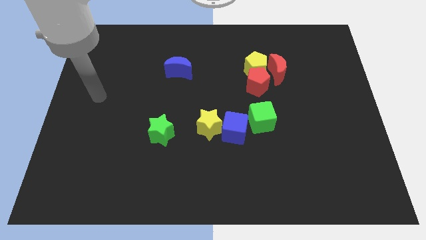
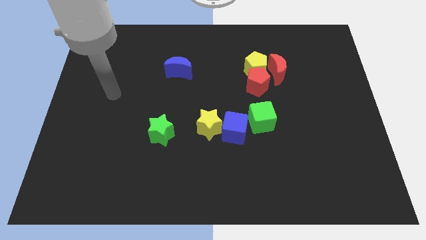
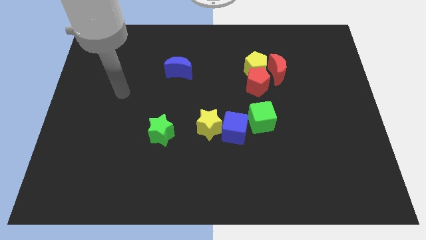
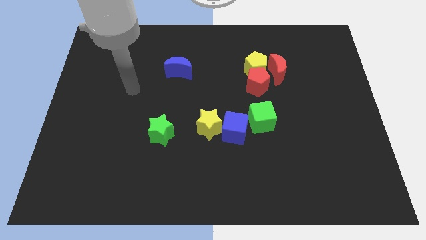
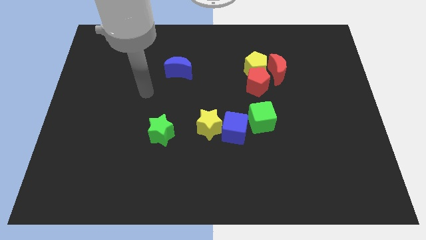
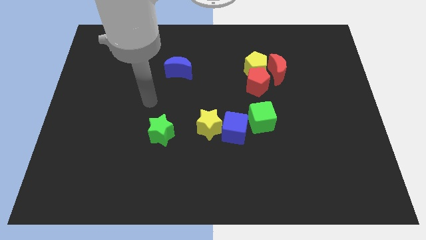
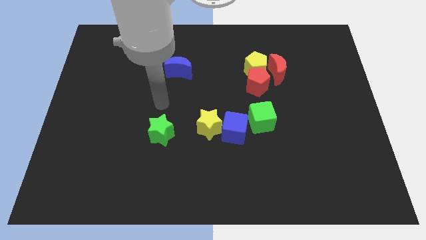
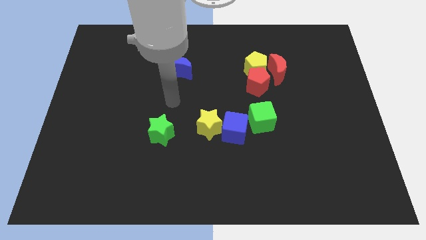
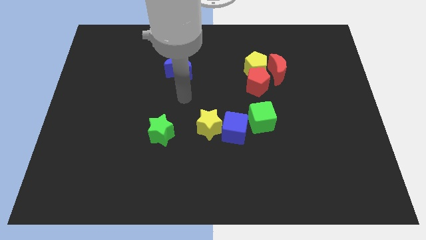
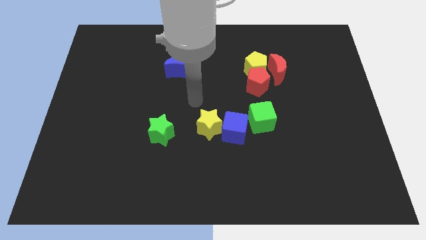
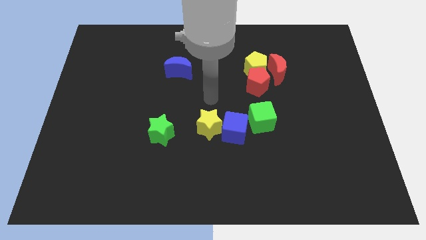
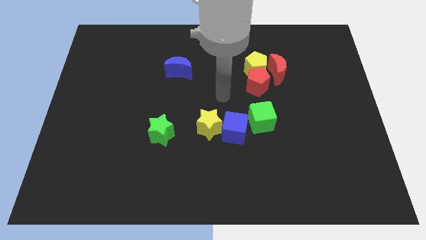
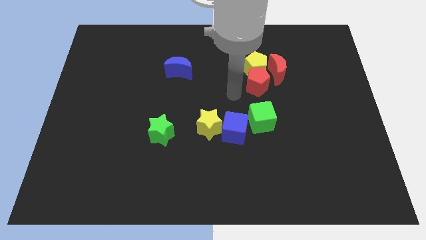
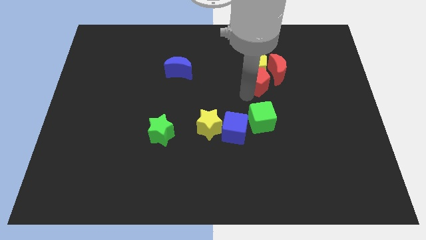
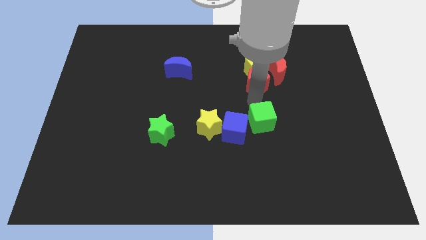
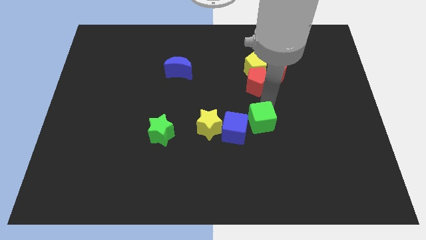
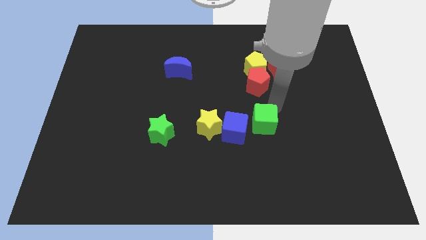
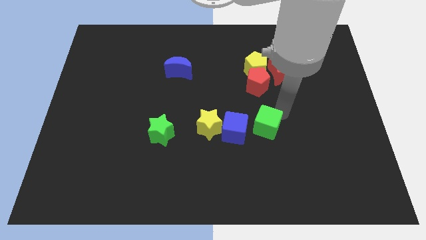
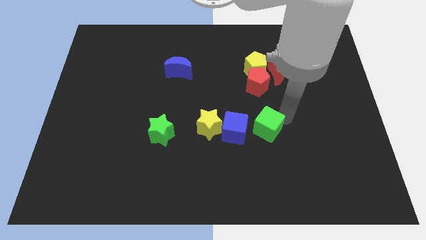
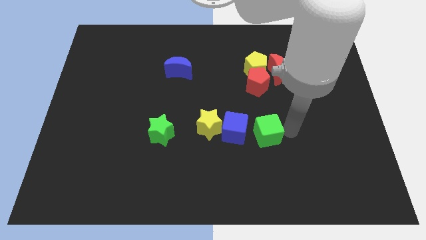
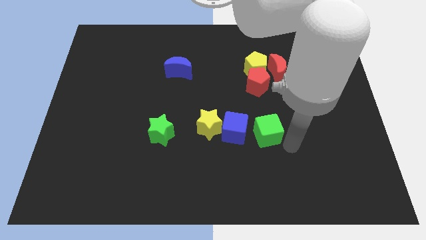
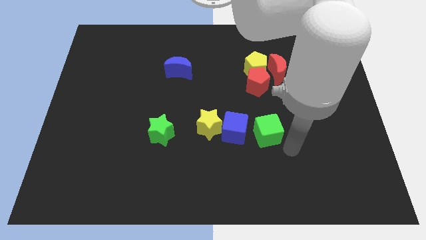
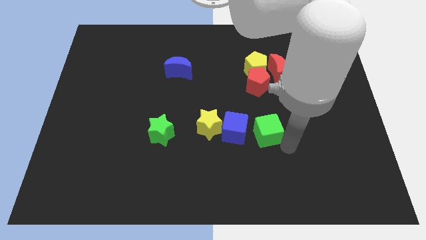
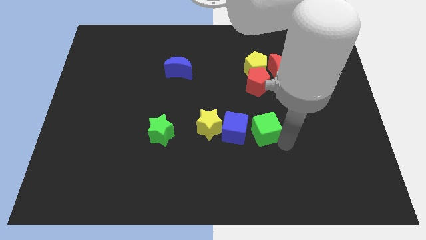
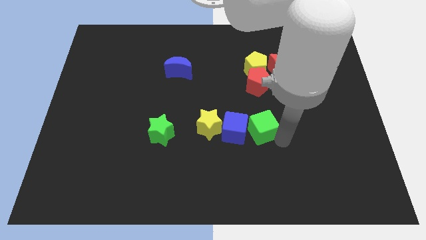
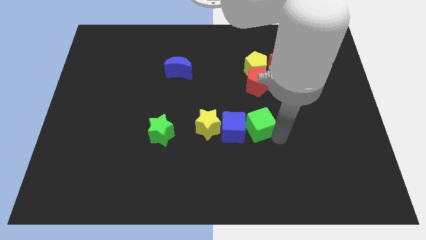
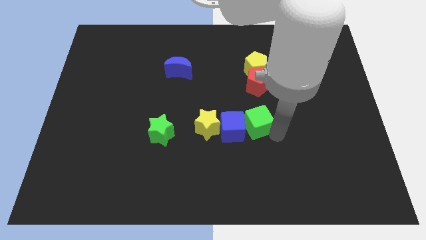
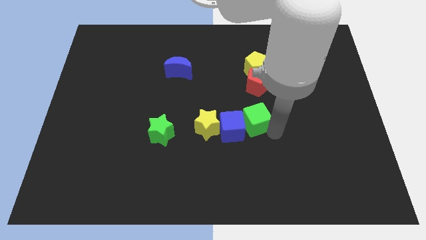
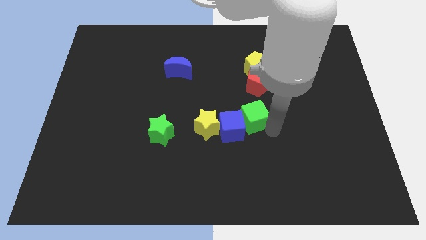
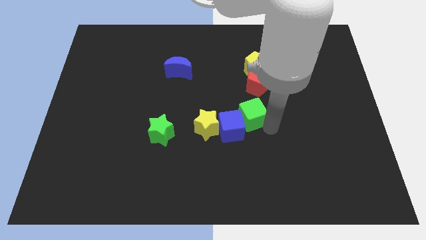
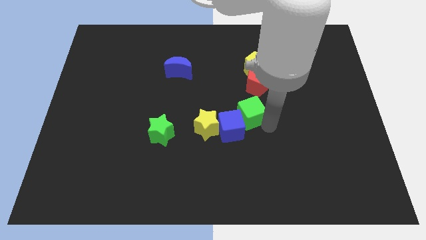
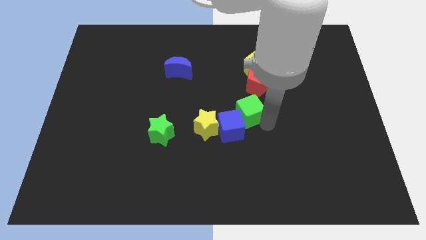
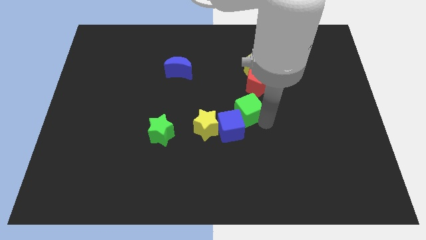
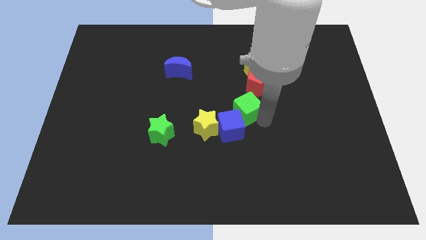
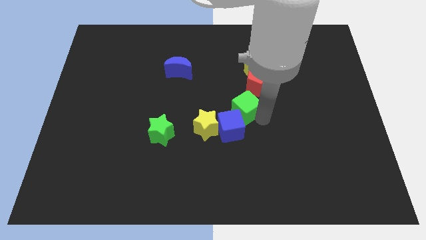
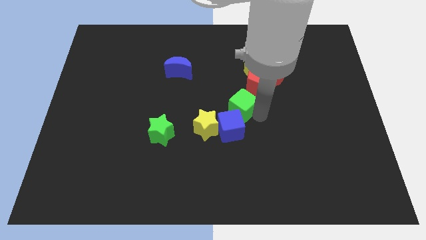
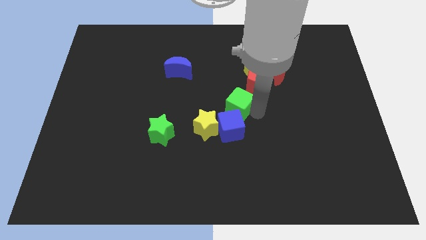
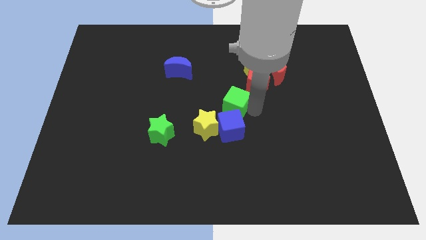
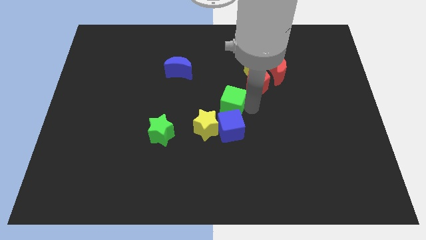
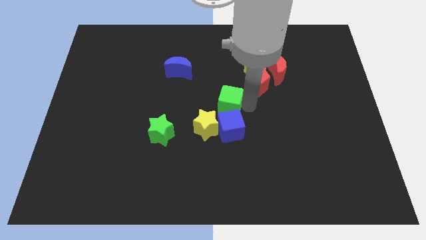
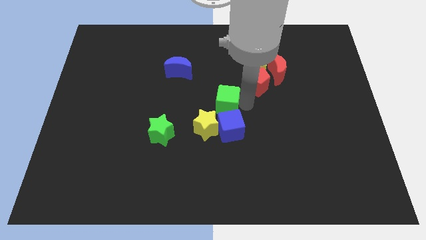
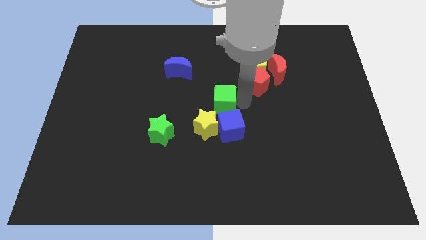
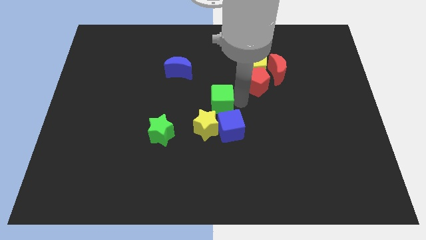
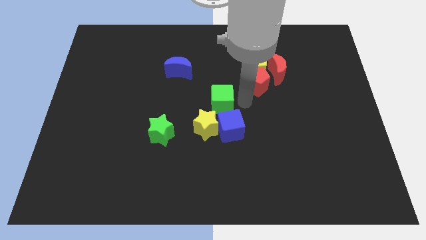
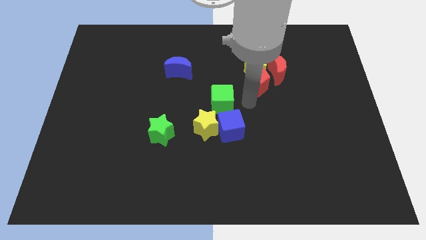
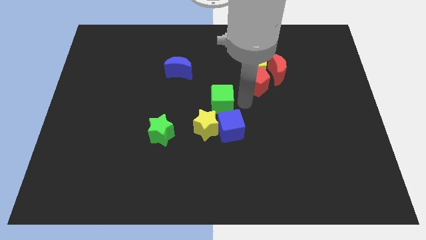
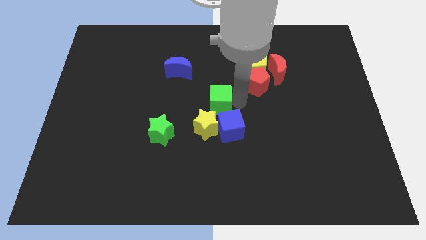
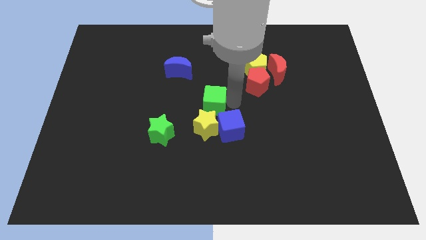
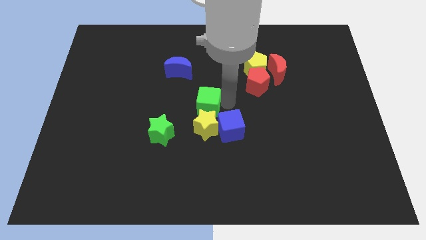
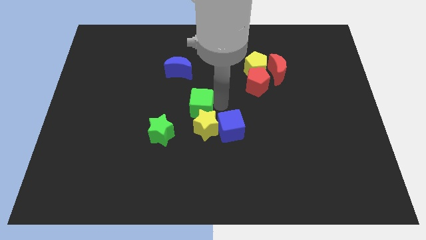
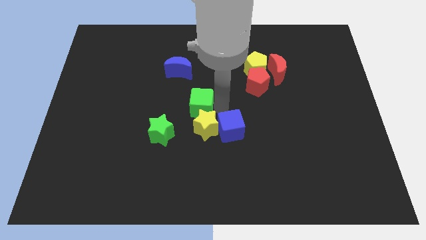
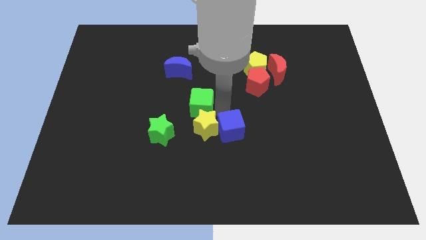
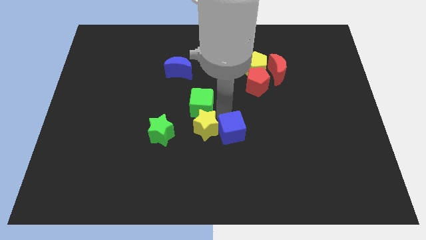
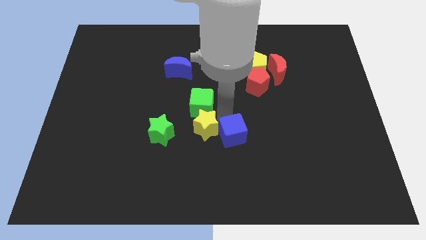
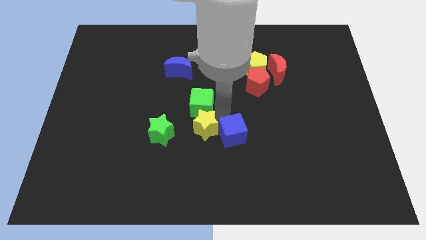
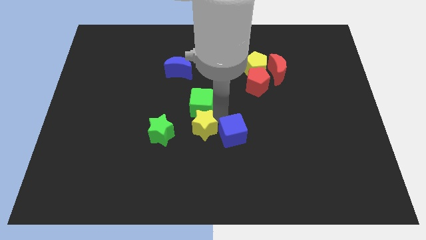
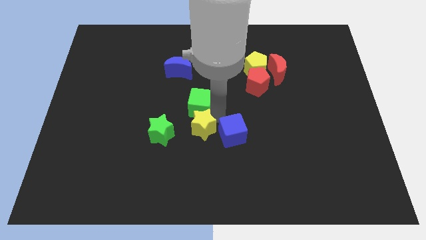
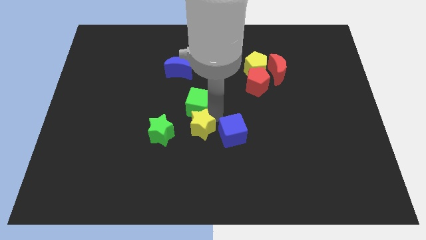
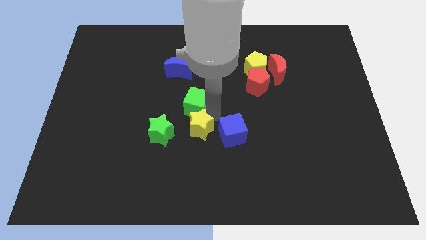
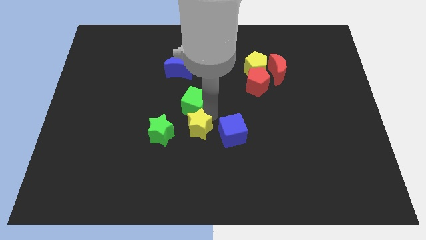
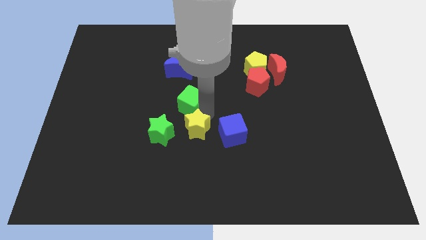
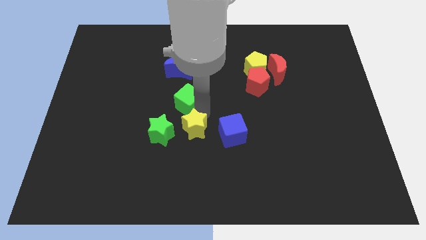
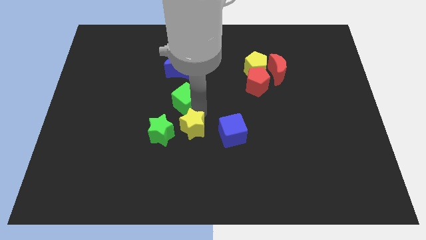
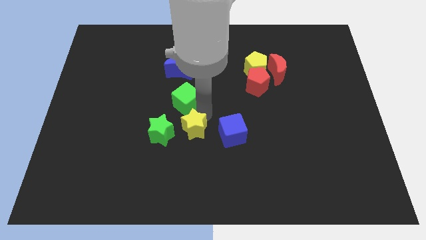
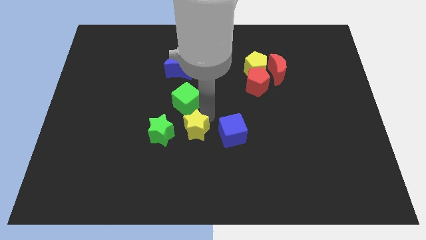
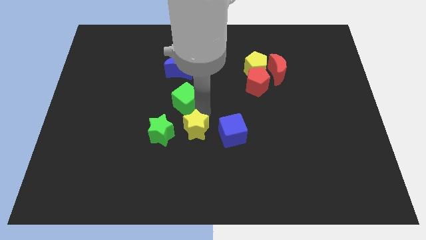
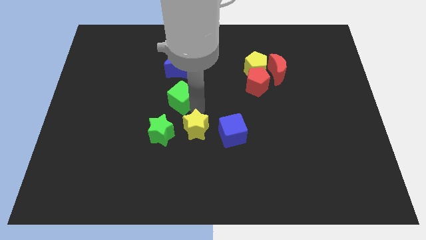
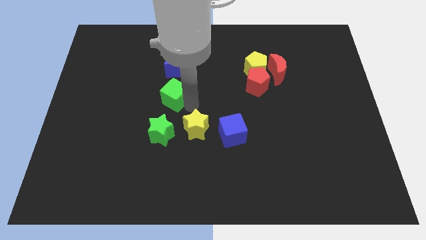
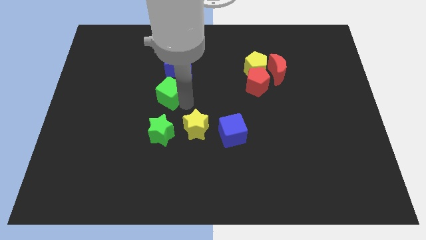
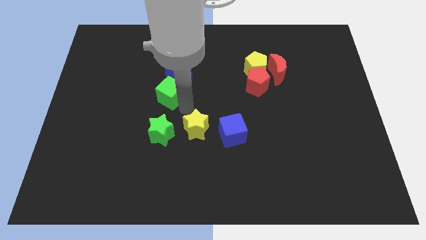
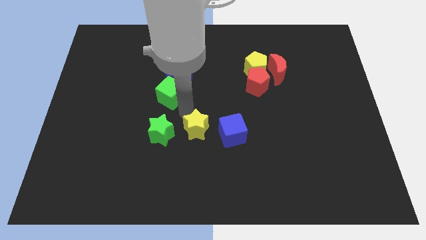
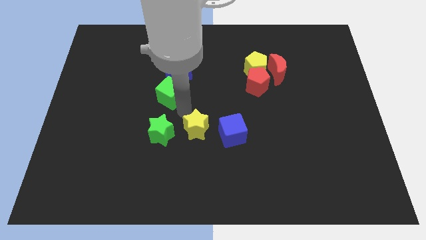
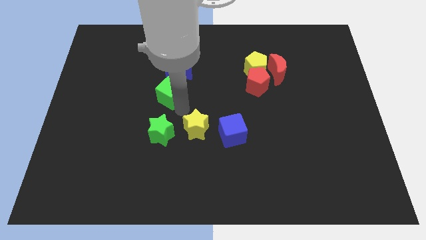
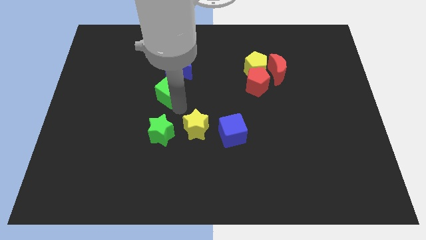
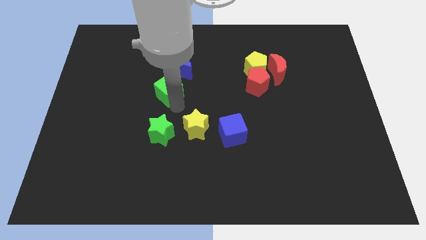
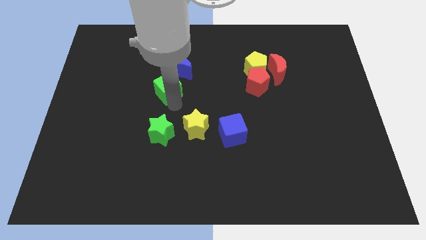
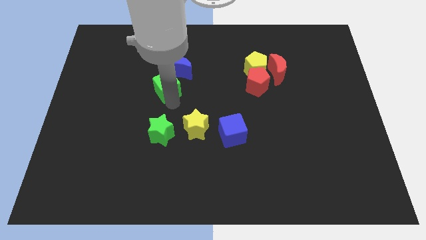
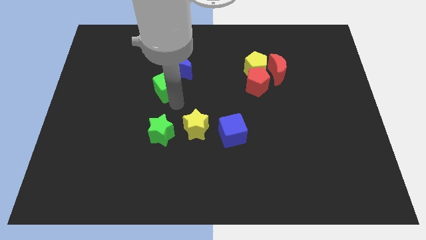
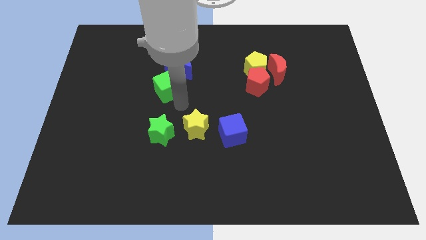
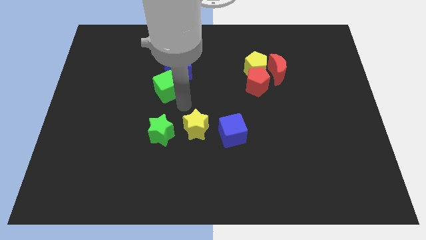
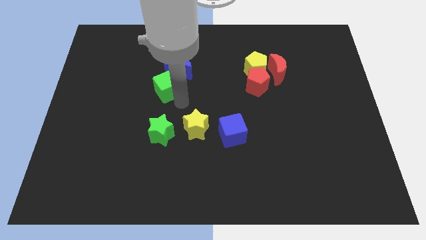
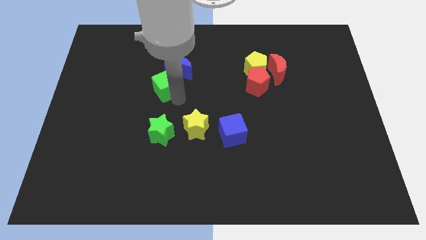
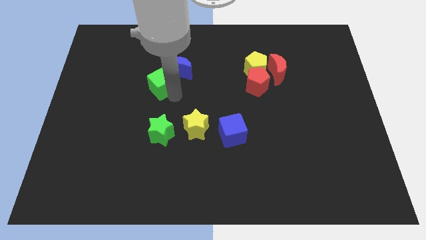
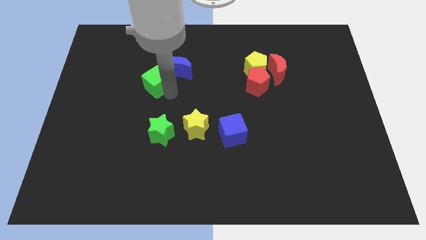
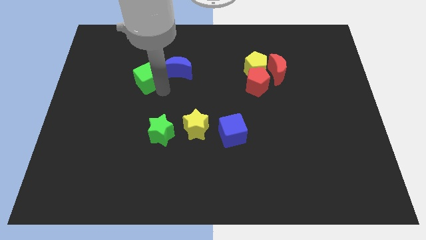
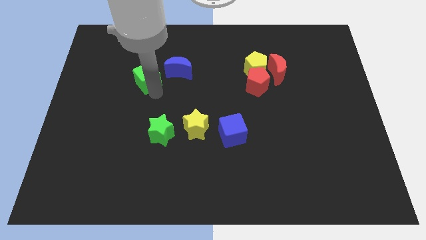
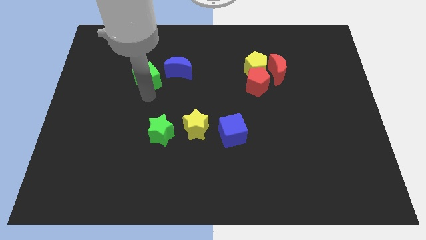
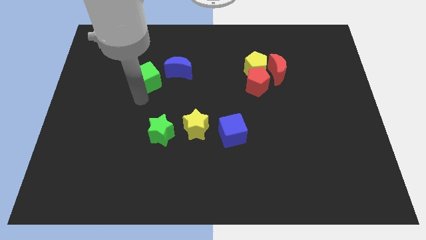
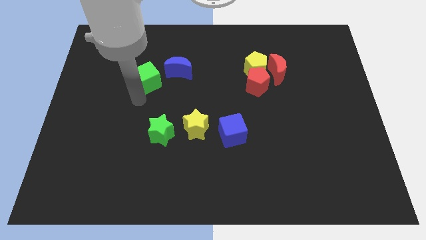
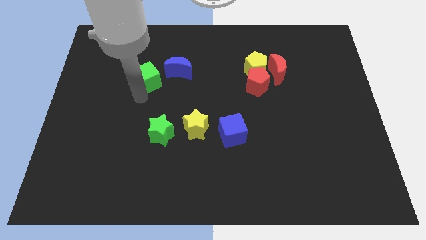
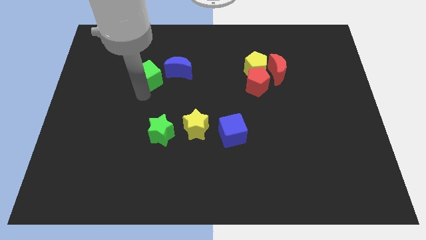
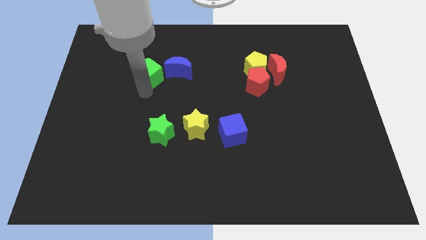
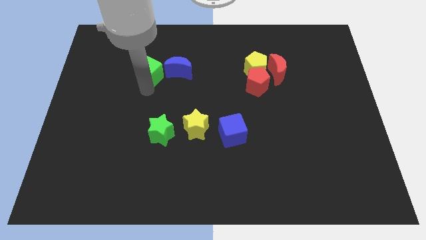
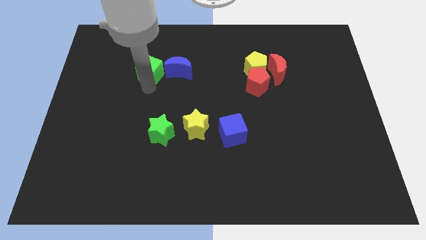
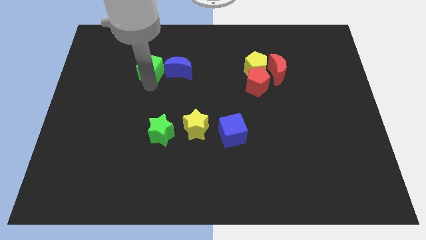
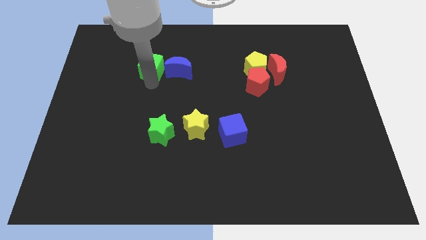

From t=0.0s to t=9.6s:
move the green cube diagonally up and to the left of the blue moon
